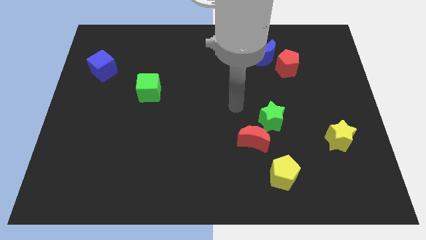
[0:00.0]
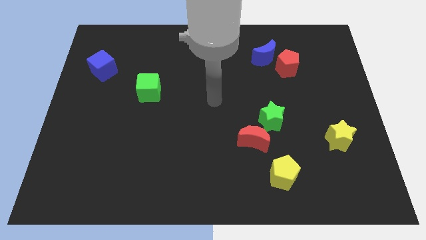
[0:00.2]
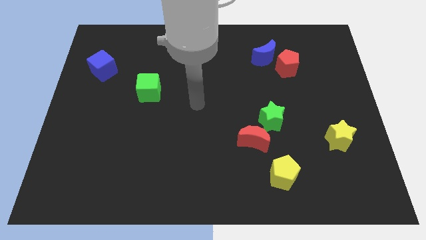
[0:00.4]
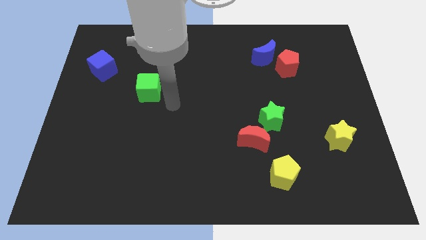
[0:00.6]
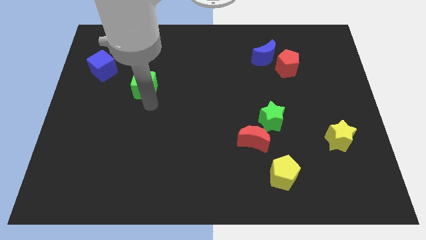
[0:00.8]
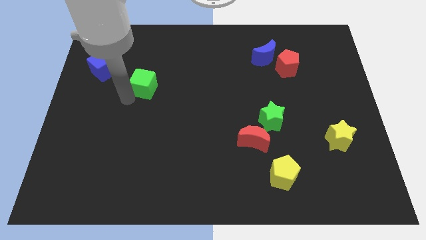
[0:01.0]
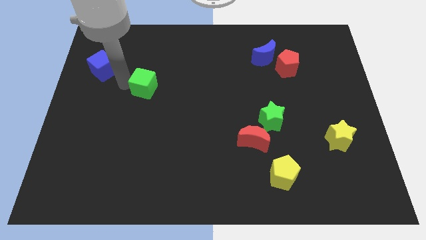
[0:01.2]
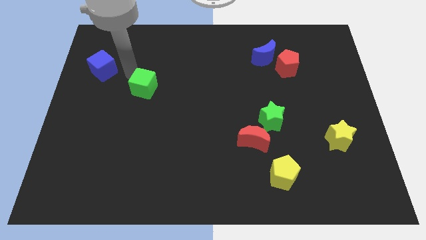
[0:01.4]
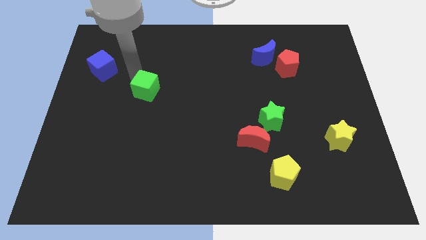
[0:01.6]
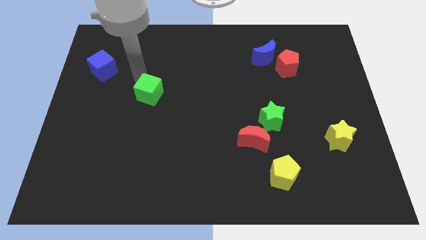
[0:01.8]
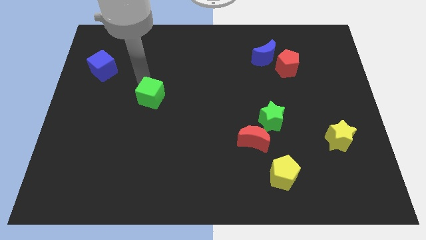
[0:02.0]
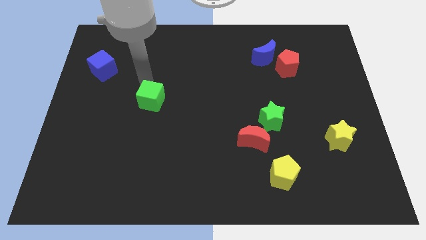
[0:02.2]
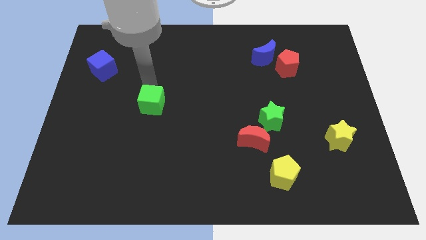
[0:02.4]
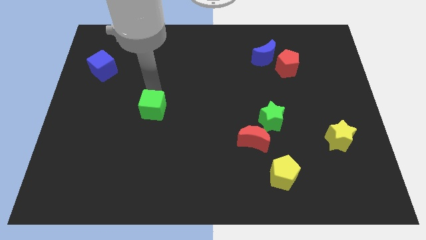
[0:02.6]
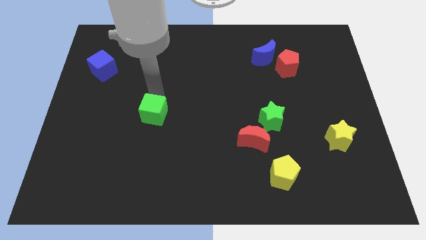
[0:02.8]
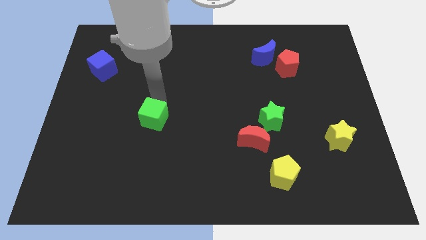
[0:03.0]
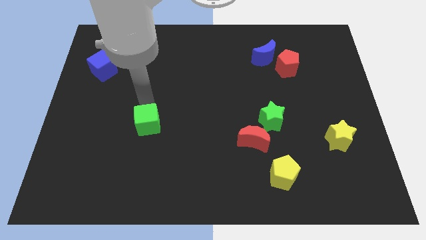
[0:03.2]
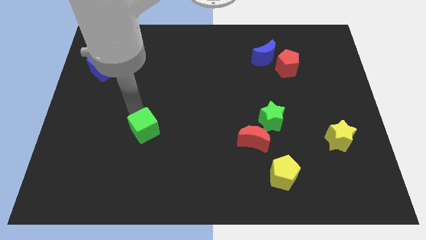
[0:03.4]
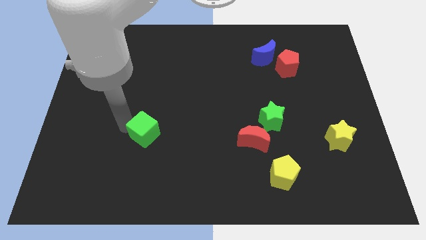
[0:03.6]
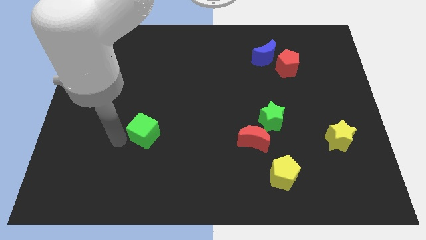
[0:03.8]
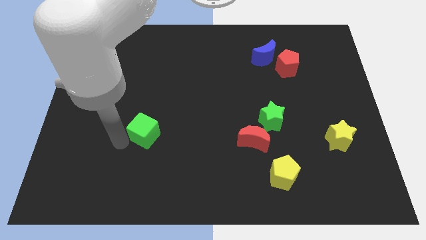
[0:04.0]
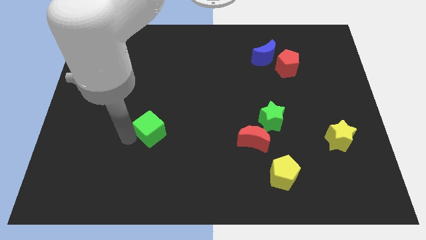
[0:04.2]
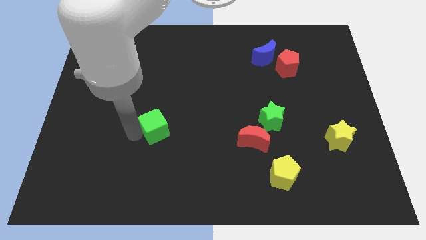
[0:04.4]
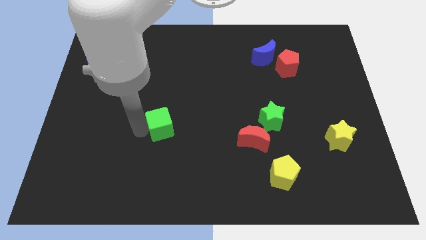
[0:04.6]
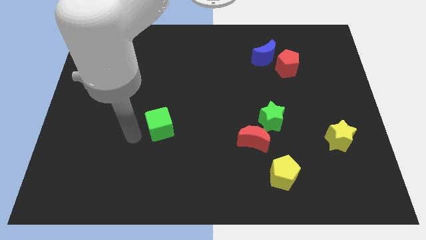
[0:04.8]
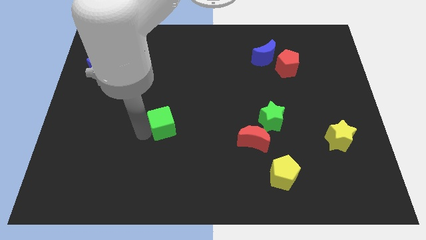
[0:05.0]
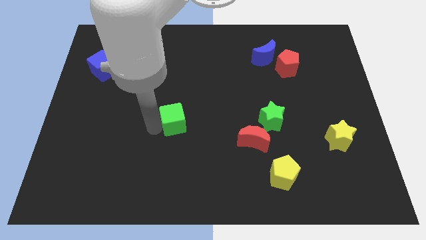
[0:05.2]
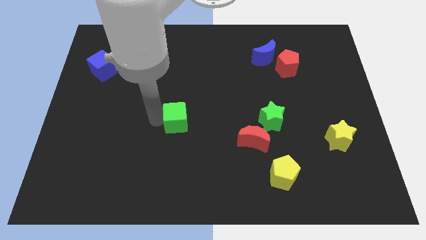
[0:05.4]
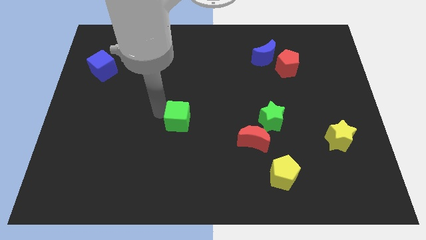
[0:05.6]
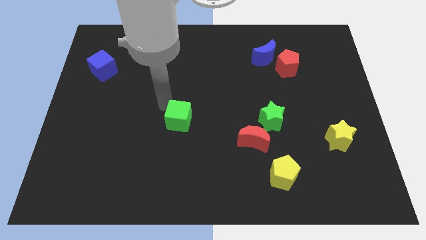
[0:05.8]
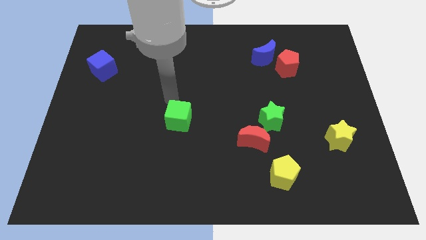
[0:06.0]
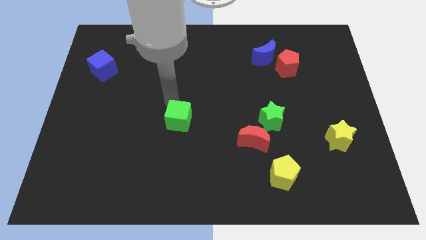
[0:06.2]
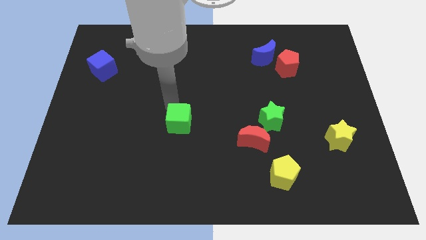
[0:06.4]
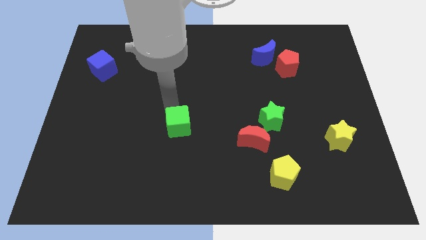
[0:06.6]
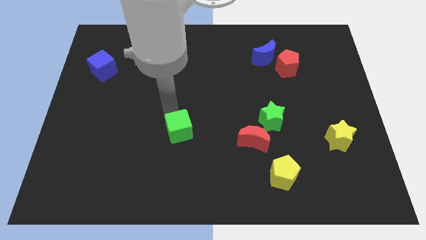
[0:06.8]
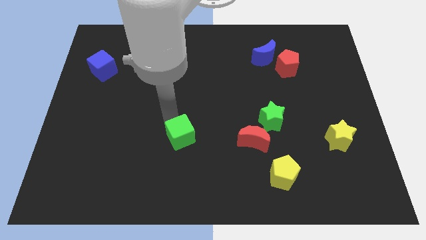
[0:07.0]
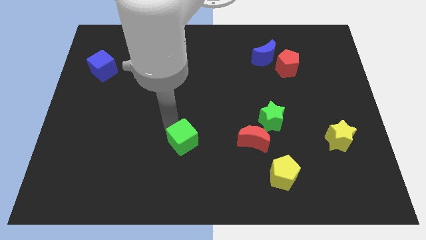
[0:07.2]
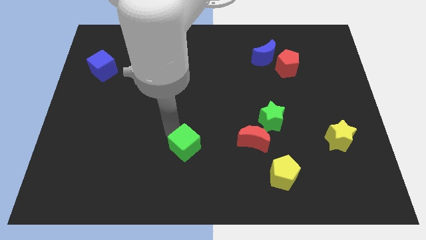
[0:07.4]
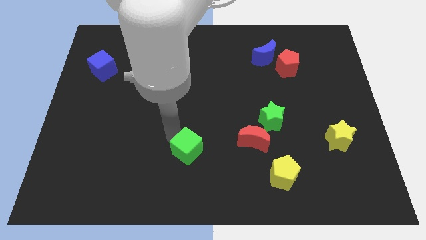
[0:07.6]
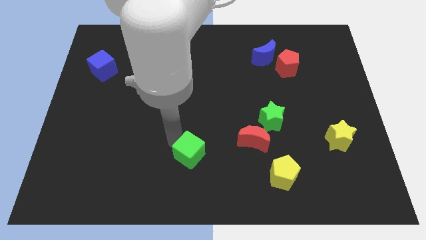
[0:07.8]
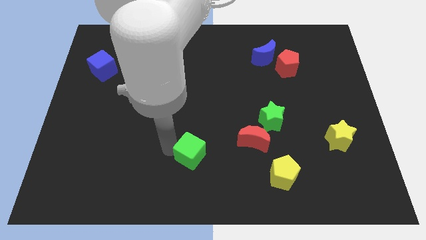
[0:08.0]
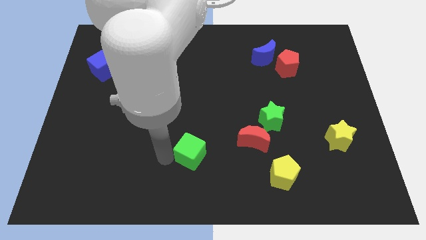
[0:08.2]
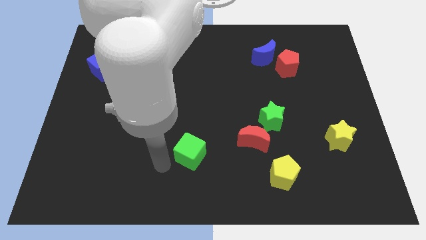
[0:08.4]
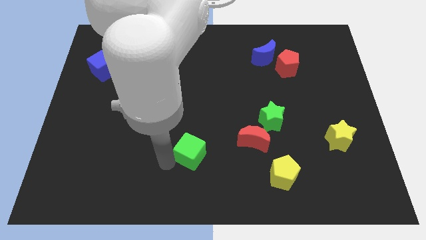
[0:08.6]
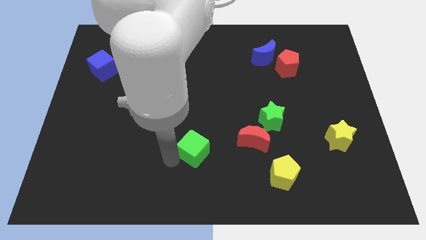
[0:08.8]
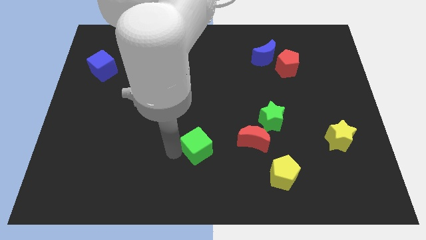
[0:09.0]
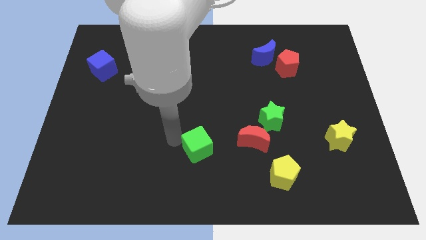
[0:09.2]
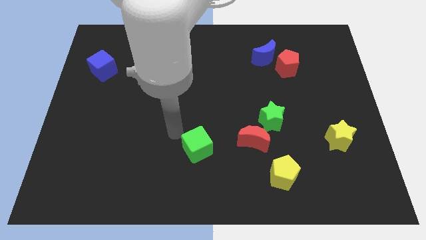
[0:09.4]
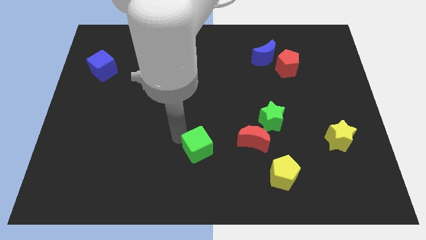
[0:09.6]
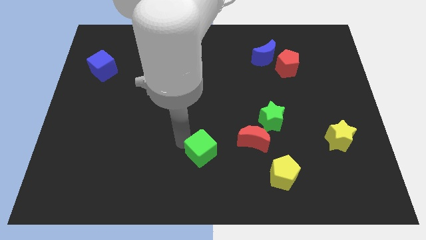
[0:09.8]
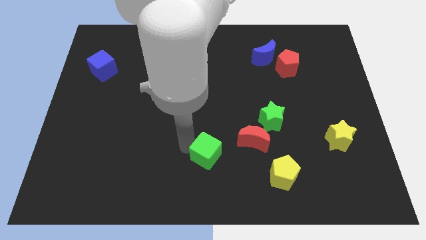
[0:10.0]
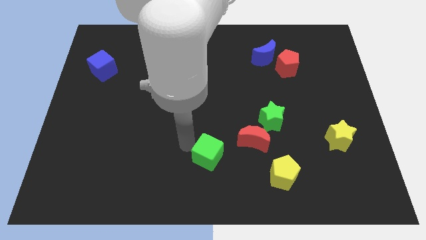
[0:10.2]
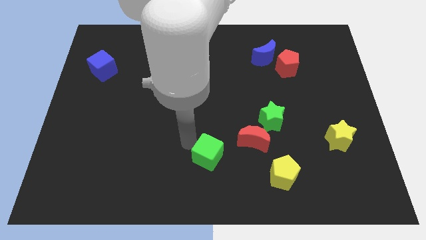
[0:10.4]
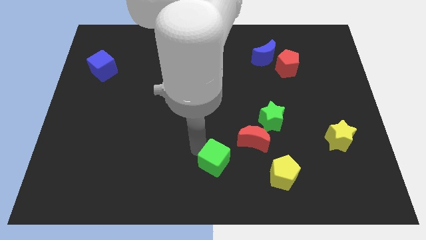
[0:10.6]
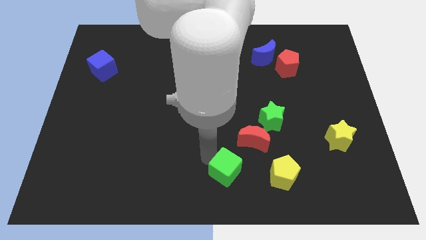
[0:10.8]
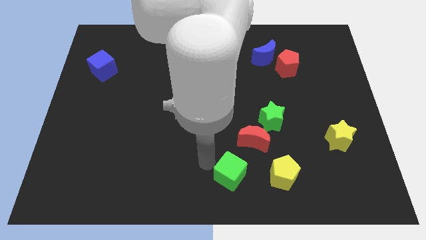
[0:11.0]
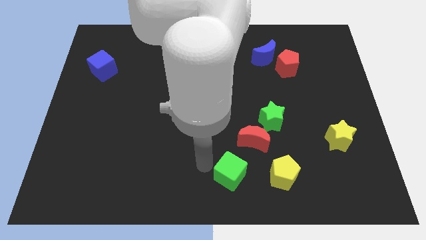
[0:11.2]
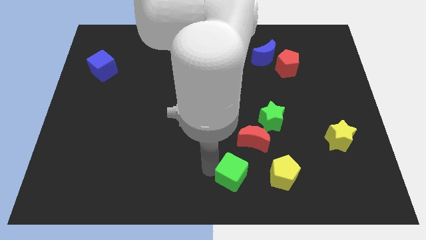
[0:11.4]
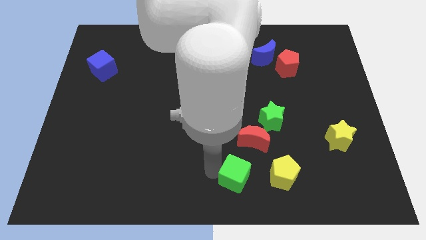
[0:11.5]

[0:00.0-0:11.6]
put the green cube below the red moon

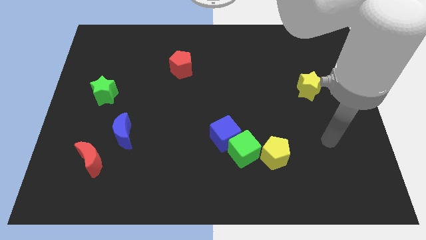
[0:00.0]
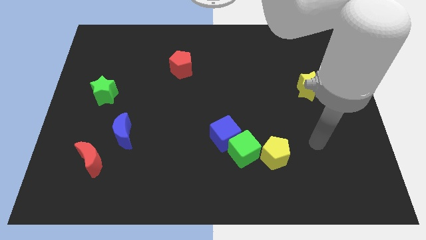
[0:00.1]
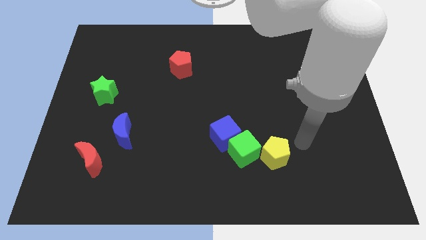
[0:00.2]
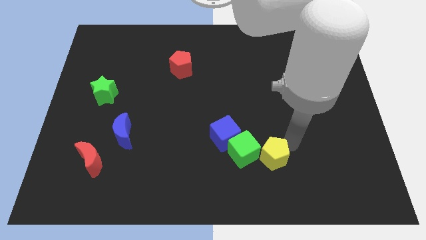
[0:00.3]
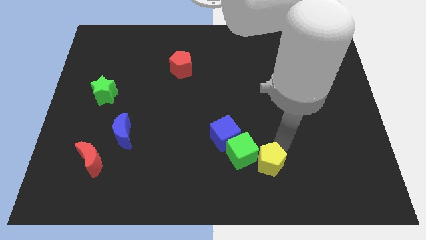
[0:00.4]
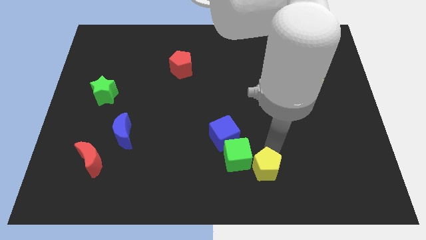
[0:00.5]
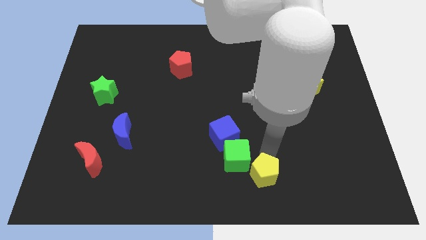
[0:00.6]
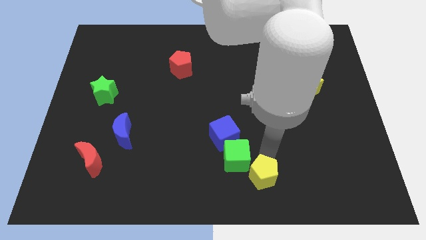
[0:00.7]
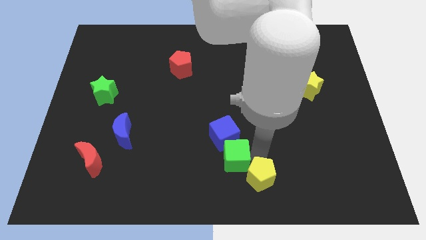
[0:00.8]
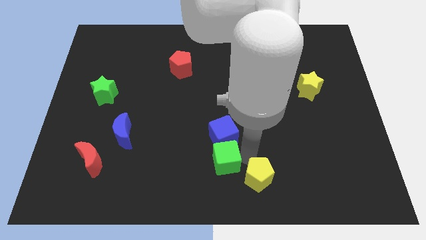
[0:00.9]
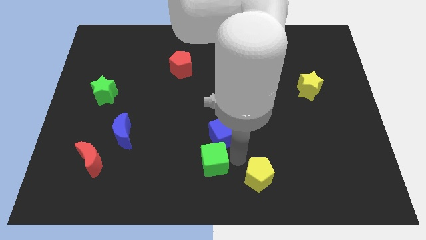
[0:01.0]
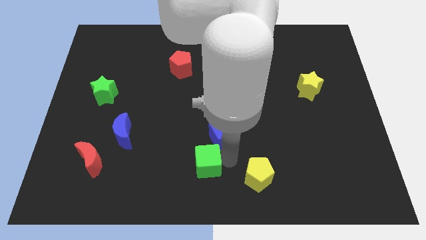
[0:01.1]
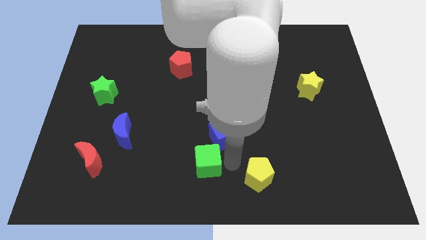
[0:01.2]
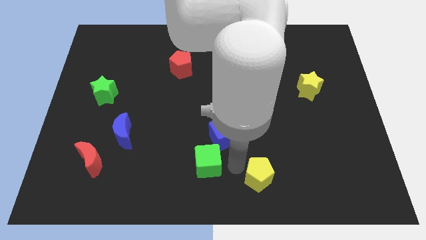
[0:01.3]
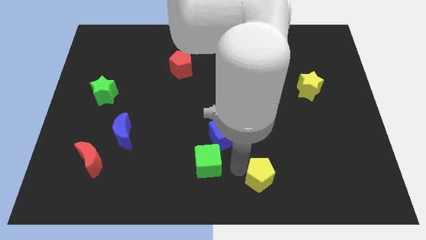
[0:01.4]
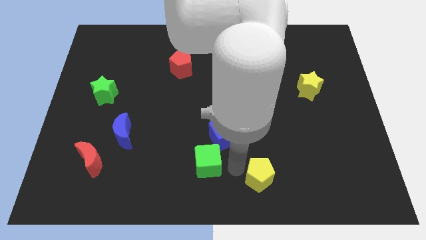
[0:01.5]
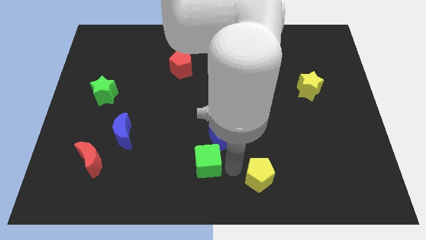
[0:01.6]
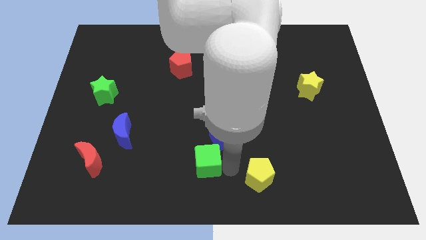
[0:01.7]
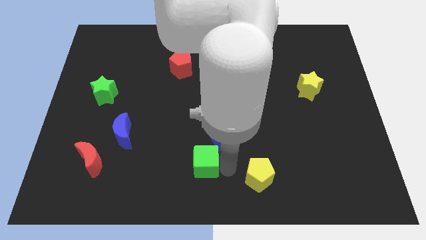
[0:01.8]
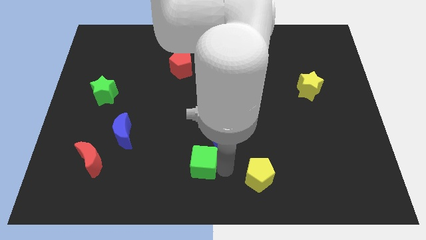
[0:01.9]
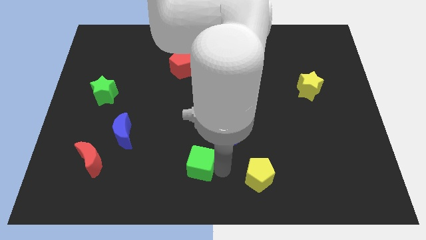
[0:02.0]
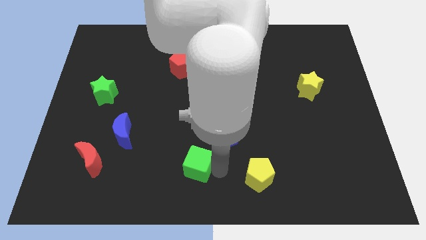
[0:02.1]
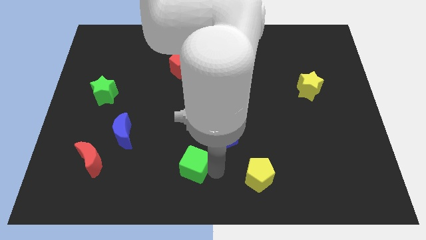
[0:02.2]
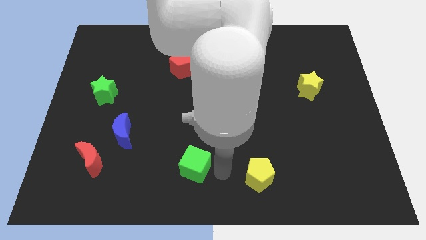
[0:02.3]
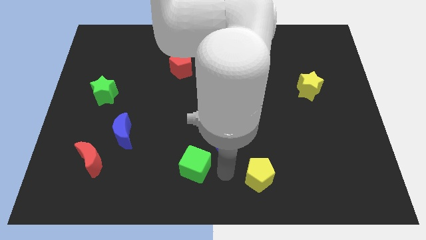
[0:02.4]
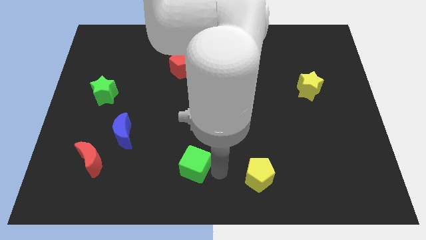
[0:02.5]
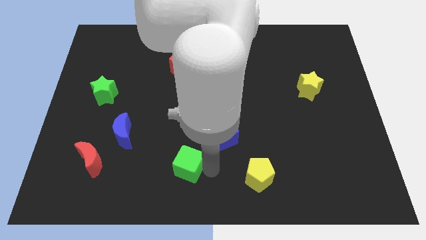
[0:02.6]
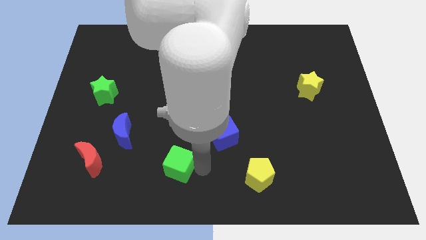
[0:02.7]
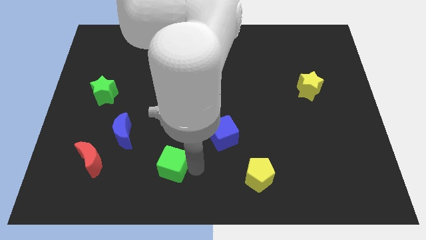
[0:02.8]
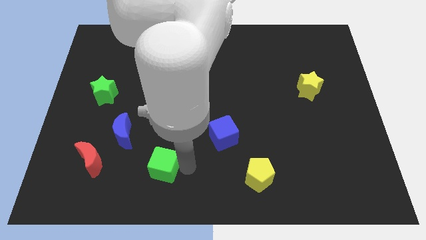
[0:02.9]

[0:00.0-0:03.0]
put the green cube right of the red moon
